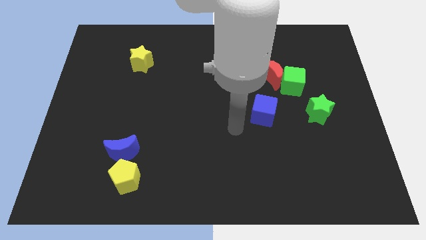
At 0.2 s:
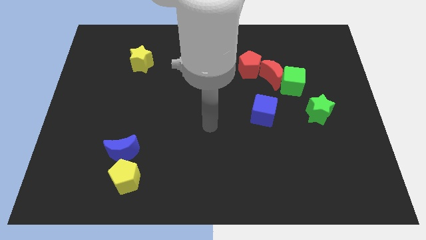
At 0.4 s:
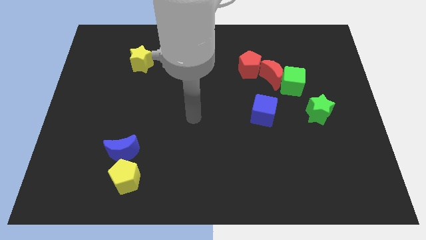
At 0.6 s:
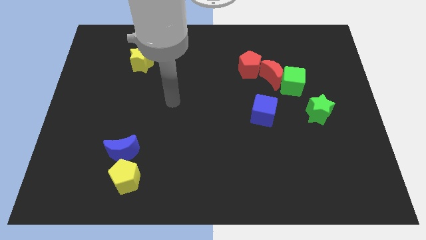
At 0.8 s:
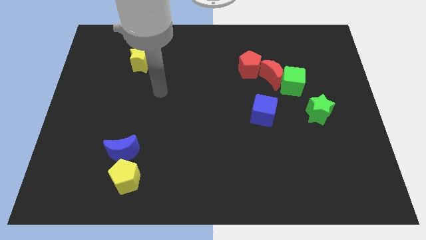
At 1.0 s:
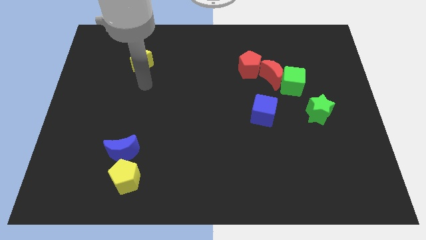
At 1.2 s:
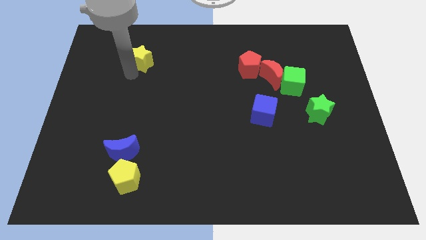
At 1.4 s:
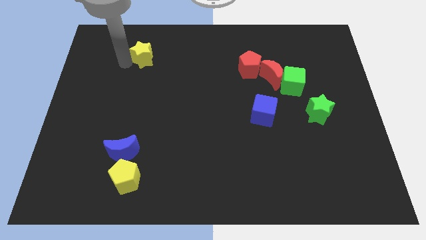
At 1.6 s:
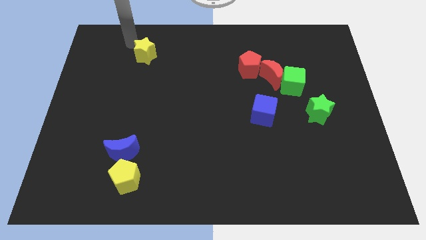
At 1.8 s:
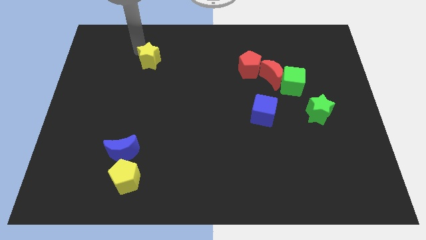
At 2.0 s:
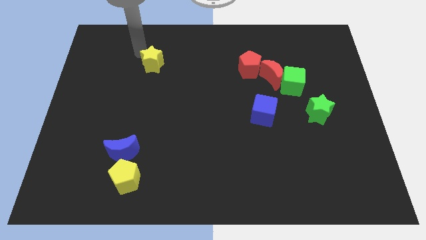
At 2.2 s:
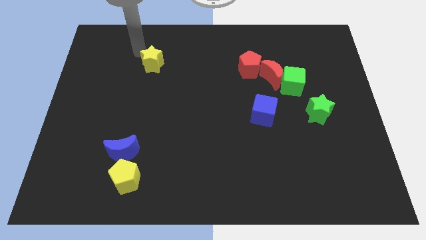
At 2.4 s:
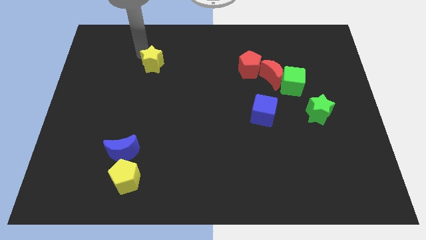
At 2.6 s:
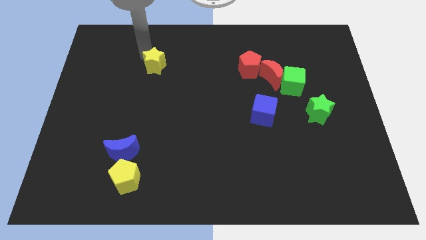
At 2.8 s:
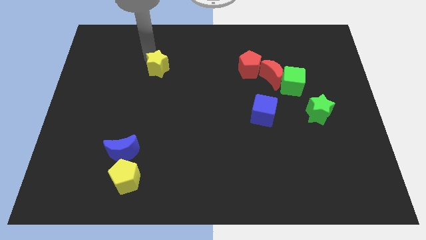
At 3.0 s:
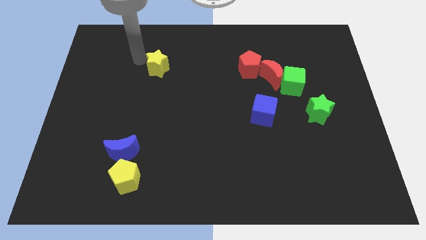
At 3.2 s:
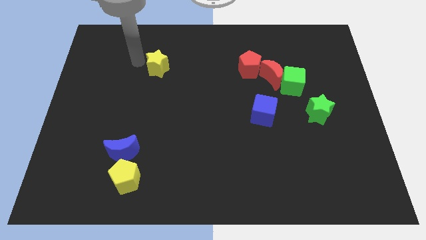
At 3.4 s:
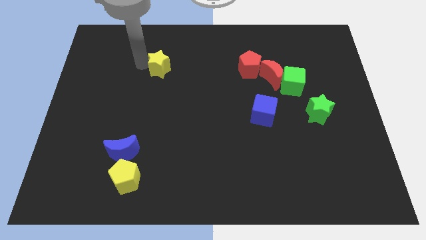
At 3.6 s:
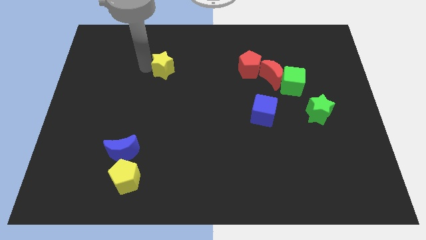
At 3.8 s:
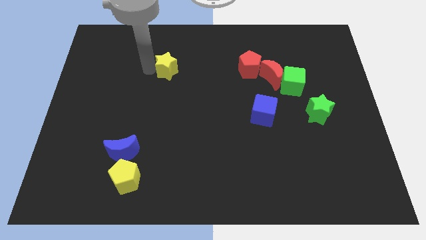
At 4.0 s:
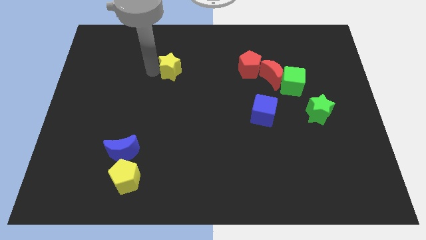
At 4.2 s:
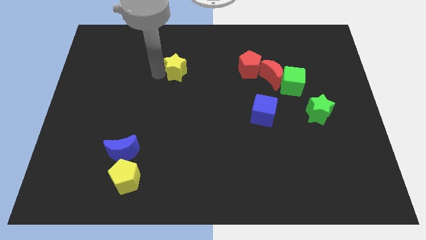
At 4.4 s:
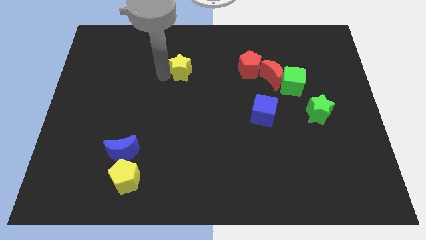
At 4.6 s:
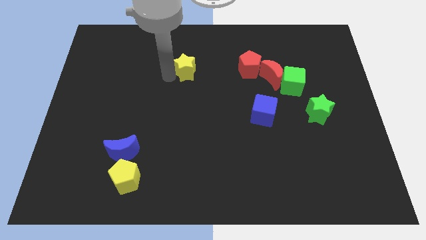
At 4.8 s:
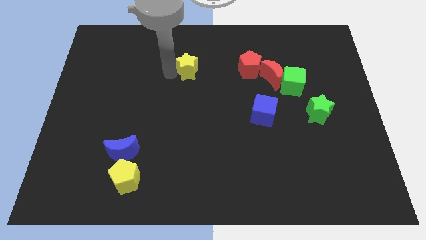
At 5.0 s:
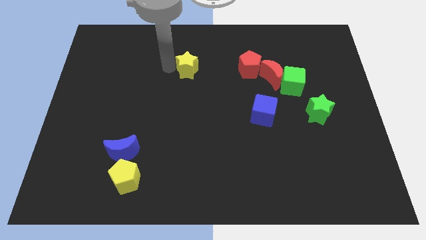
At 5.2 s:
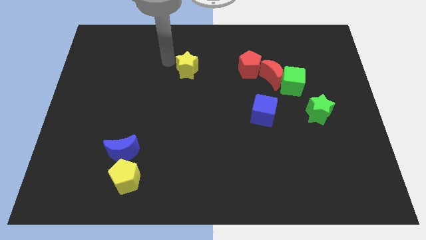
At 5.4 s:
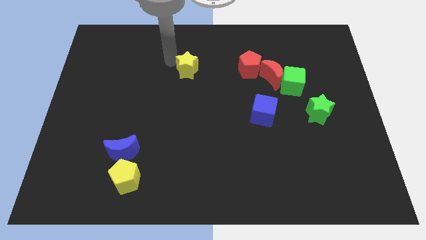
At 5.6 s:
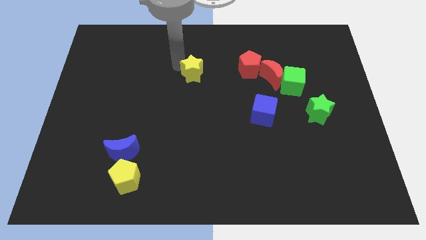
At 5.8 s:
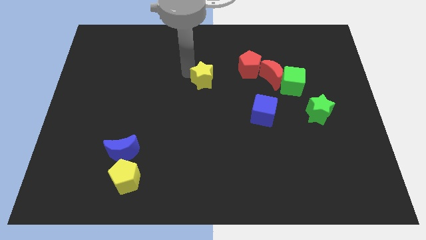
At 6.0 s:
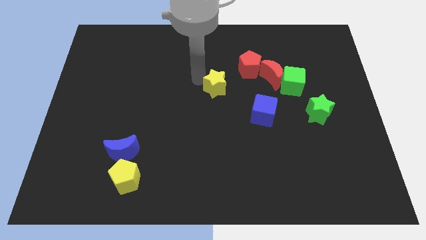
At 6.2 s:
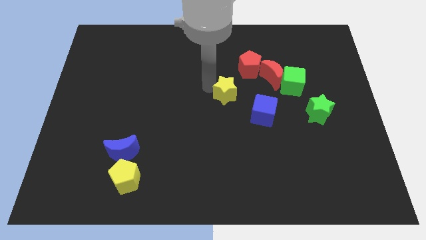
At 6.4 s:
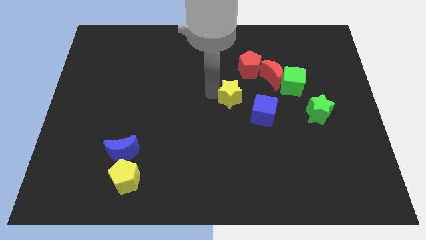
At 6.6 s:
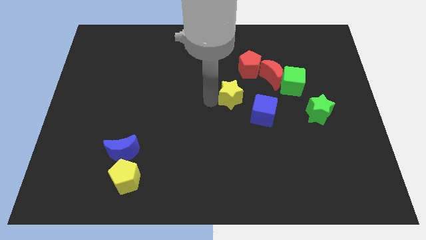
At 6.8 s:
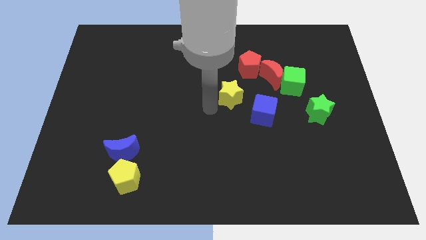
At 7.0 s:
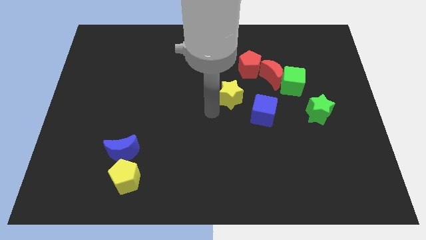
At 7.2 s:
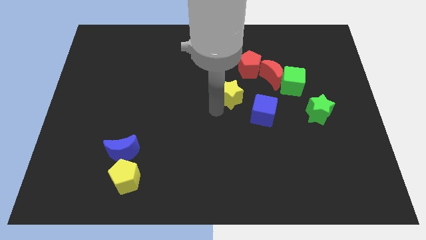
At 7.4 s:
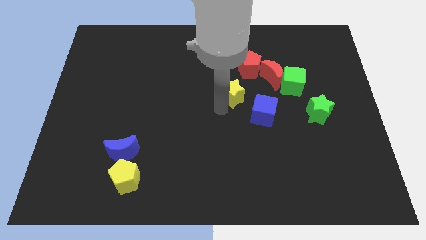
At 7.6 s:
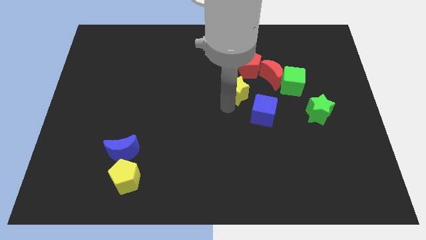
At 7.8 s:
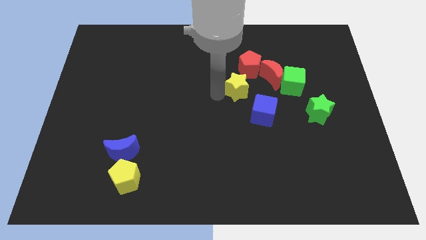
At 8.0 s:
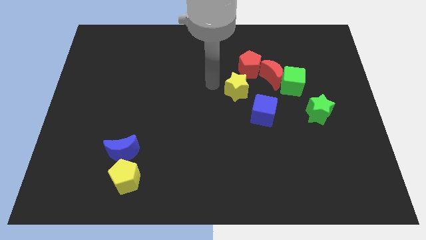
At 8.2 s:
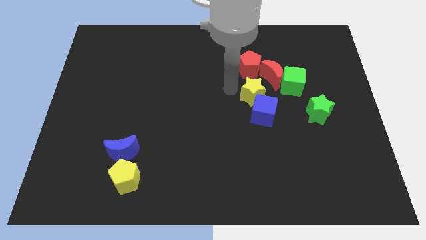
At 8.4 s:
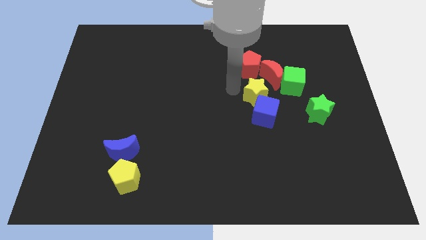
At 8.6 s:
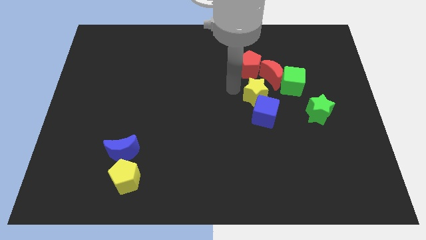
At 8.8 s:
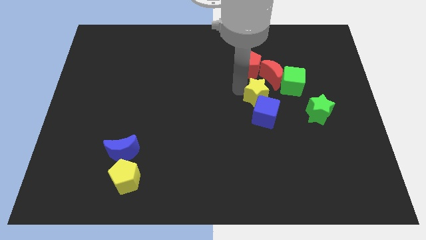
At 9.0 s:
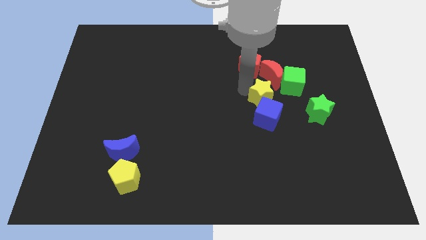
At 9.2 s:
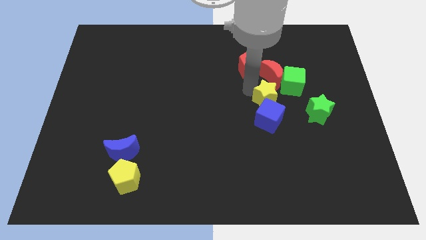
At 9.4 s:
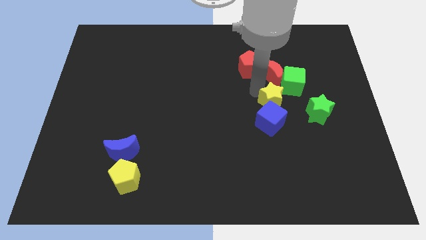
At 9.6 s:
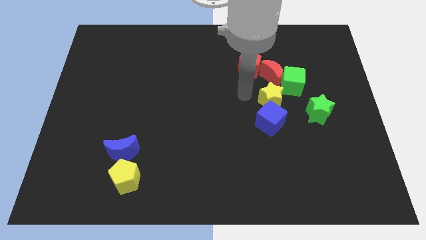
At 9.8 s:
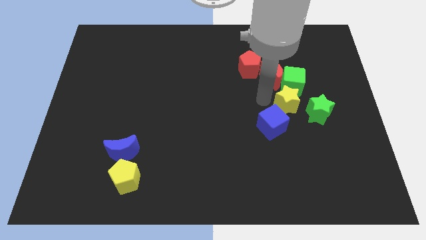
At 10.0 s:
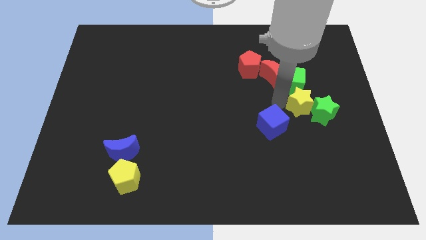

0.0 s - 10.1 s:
slide the yellow star next to the green star

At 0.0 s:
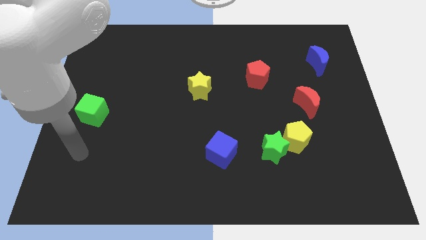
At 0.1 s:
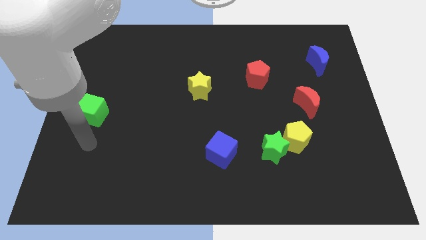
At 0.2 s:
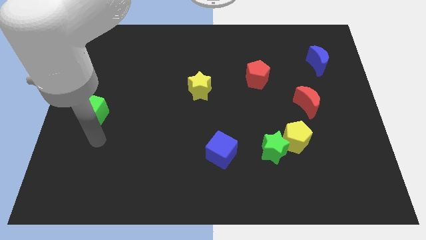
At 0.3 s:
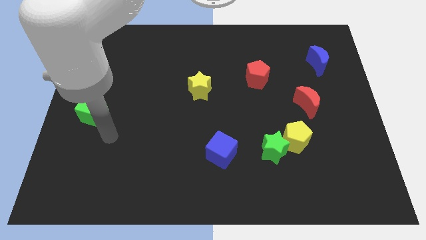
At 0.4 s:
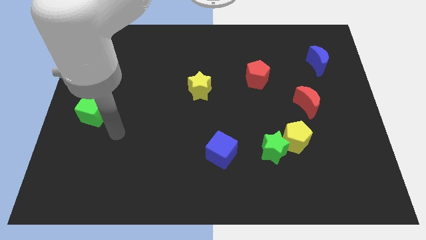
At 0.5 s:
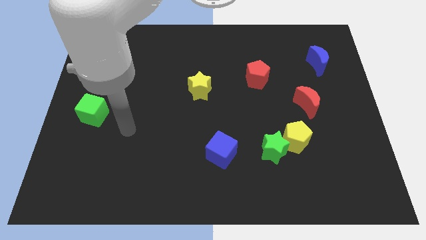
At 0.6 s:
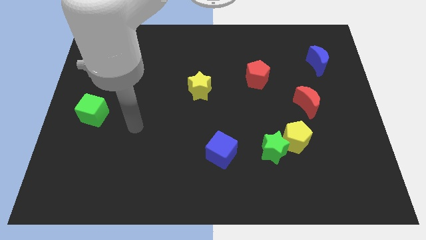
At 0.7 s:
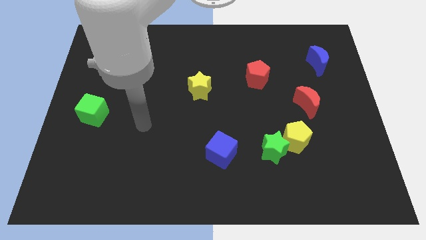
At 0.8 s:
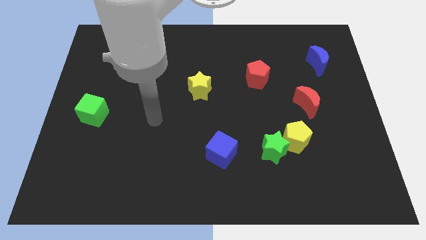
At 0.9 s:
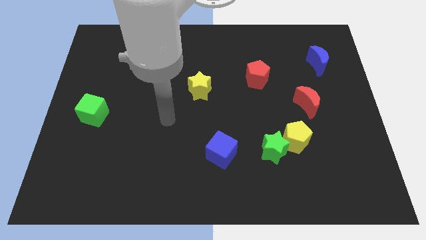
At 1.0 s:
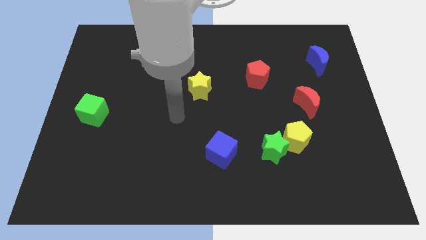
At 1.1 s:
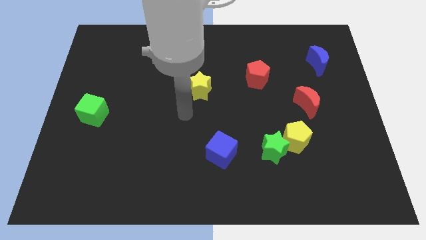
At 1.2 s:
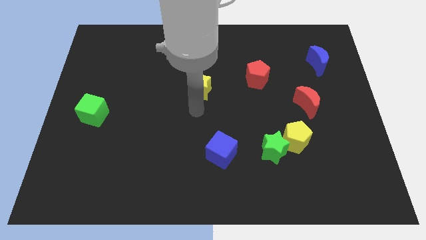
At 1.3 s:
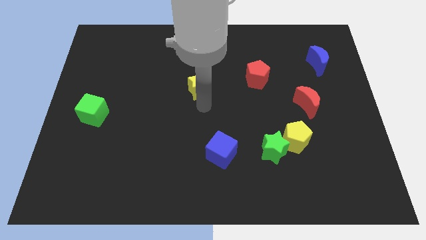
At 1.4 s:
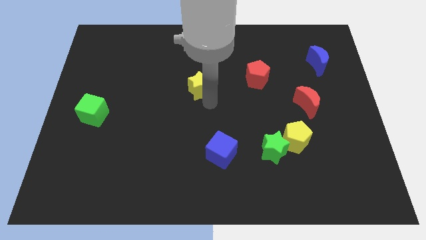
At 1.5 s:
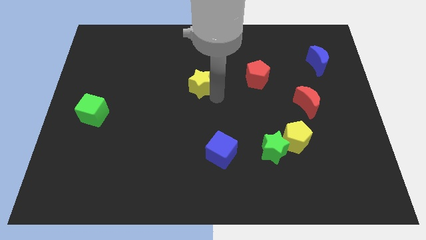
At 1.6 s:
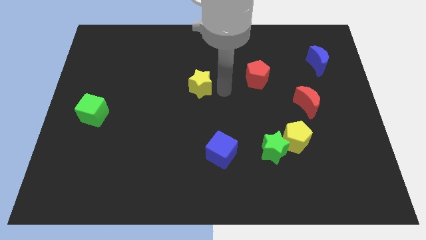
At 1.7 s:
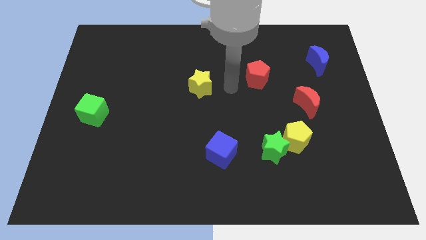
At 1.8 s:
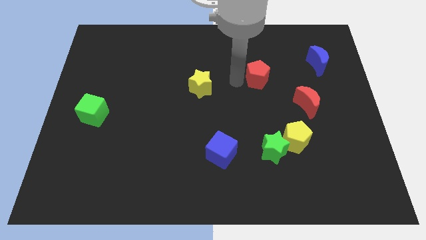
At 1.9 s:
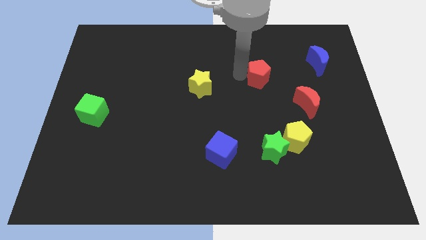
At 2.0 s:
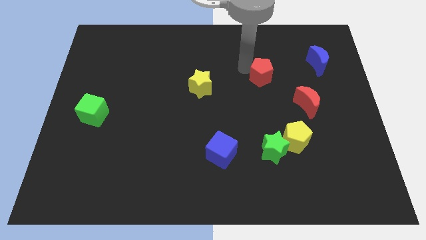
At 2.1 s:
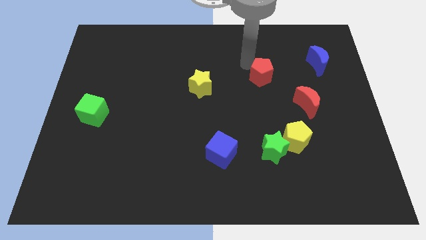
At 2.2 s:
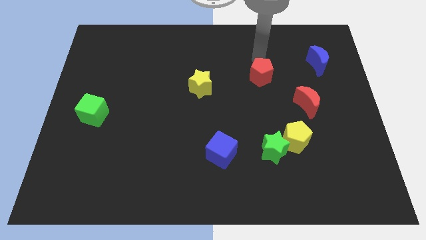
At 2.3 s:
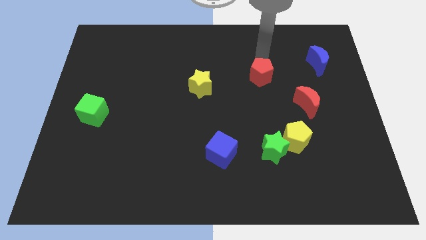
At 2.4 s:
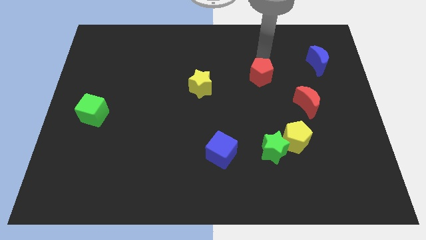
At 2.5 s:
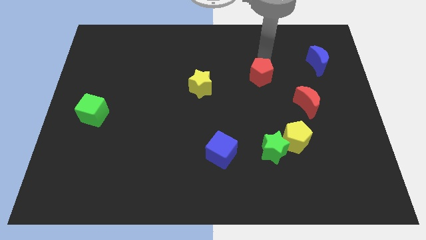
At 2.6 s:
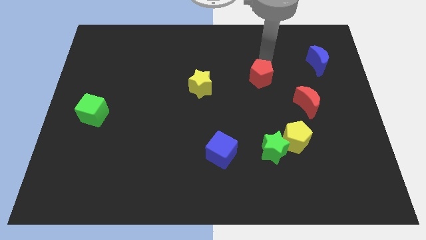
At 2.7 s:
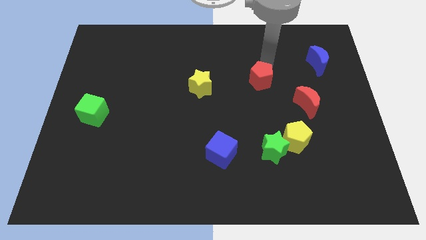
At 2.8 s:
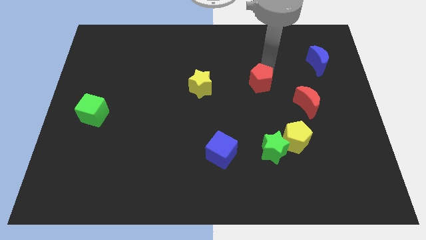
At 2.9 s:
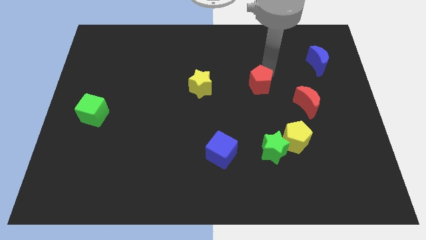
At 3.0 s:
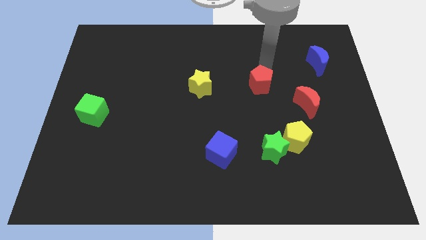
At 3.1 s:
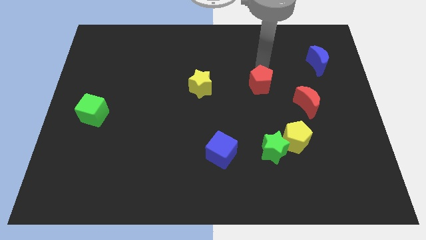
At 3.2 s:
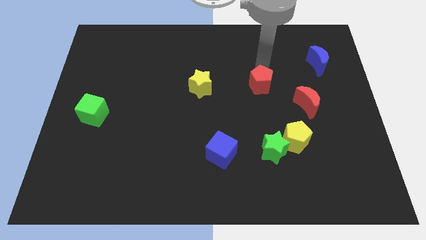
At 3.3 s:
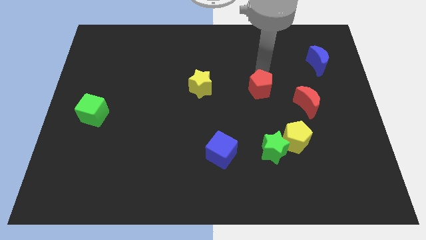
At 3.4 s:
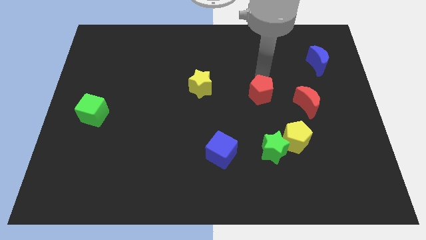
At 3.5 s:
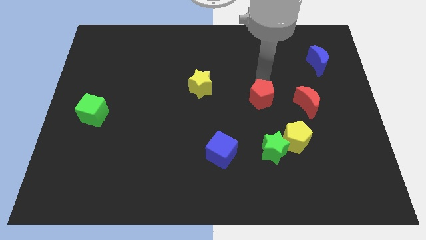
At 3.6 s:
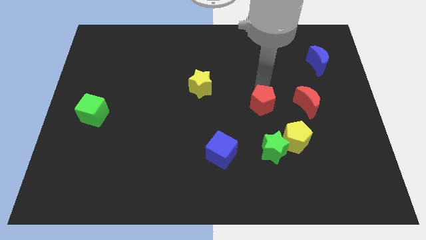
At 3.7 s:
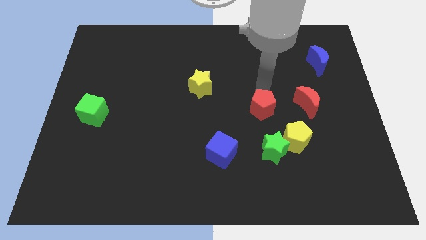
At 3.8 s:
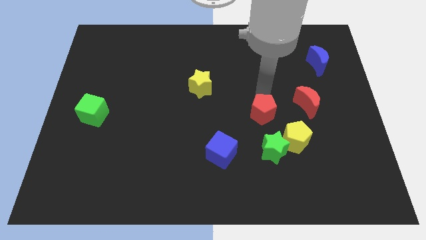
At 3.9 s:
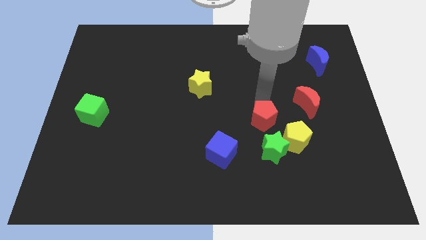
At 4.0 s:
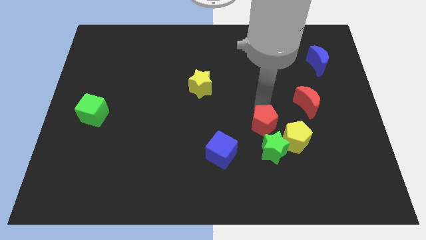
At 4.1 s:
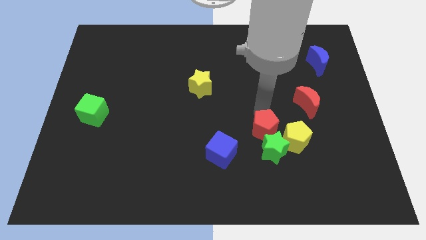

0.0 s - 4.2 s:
move the red pentagon to the green star
